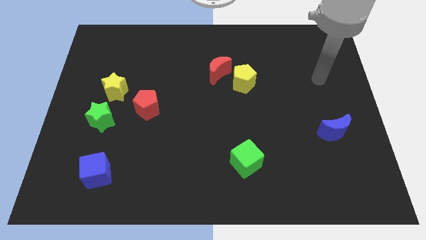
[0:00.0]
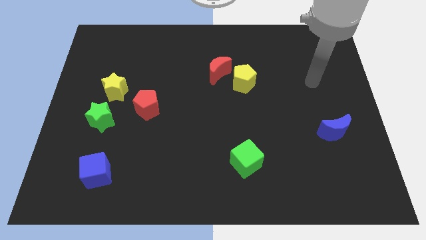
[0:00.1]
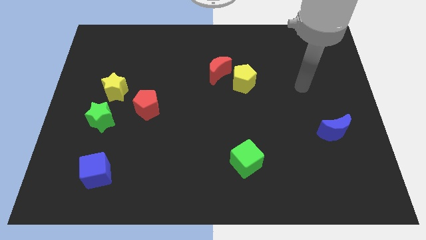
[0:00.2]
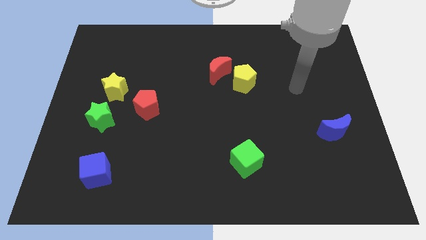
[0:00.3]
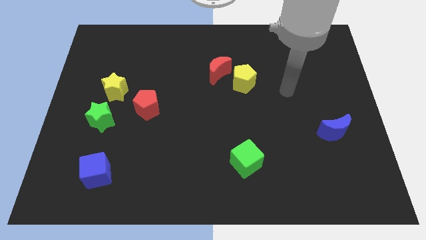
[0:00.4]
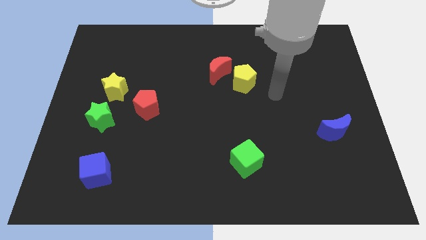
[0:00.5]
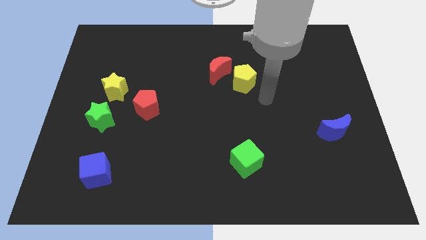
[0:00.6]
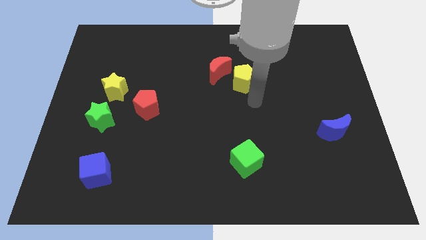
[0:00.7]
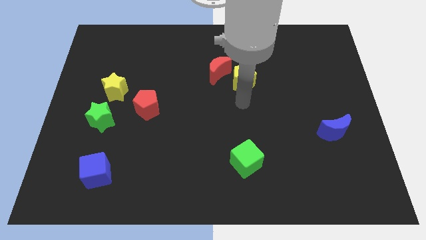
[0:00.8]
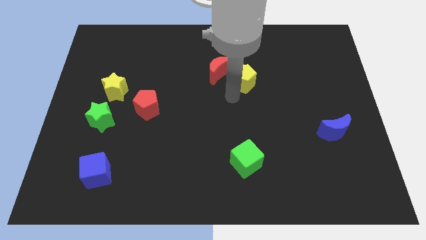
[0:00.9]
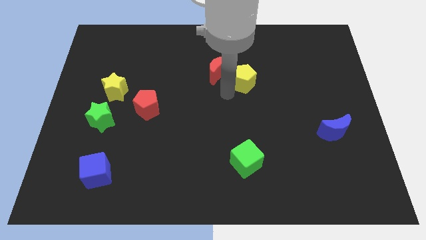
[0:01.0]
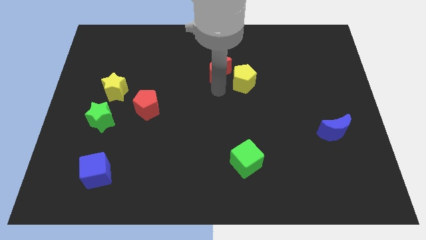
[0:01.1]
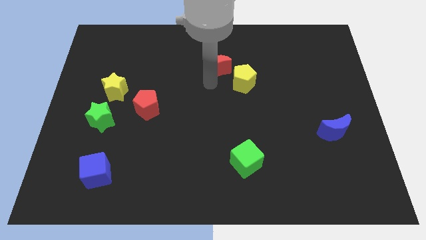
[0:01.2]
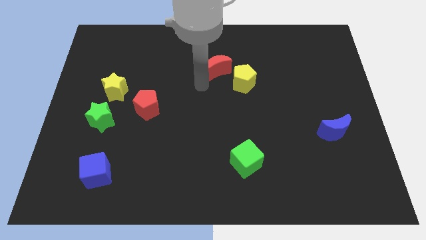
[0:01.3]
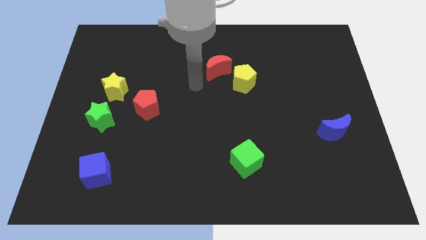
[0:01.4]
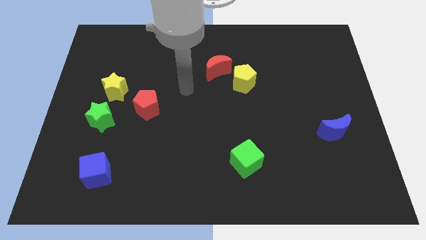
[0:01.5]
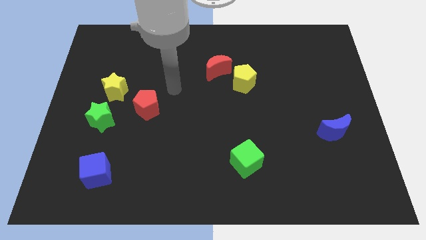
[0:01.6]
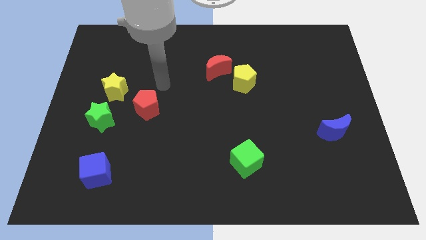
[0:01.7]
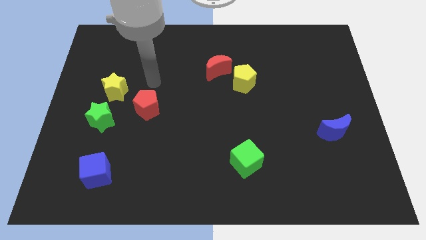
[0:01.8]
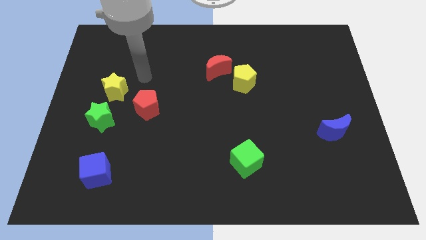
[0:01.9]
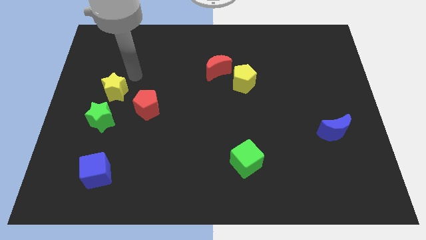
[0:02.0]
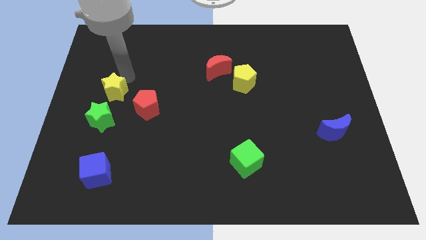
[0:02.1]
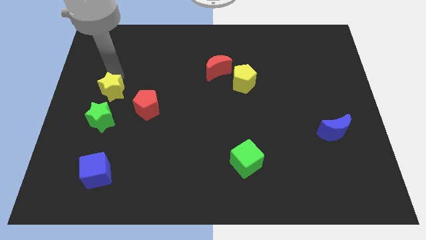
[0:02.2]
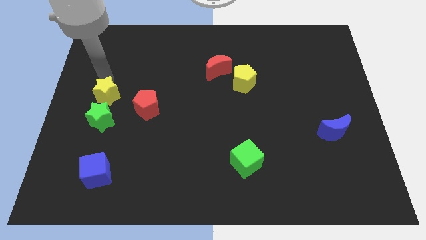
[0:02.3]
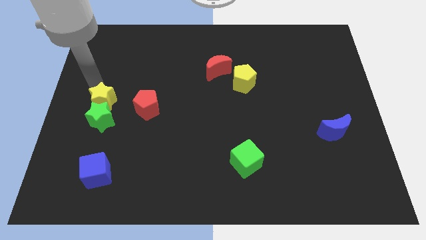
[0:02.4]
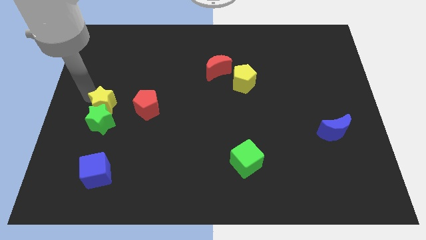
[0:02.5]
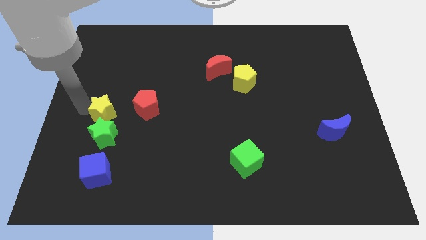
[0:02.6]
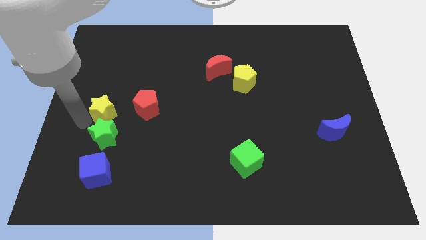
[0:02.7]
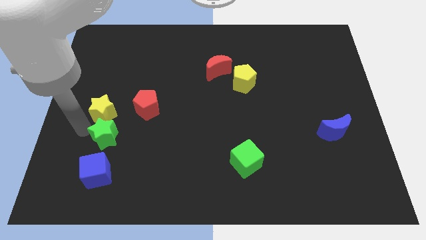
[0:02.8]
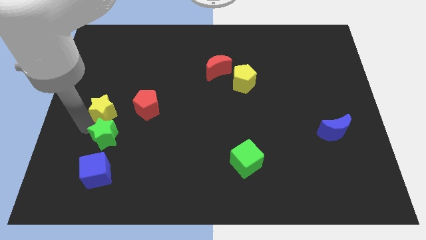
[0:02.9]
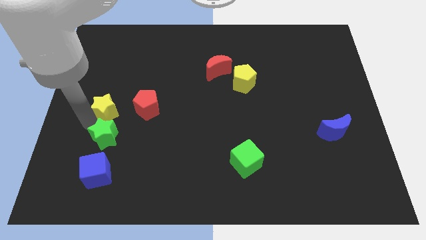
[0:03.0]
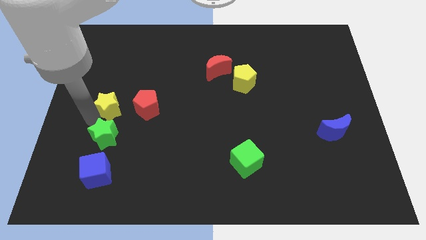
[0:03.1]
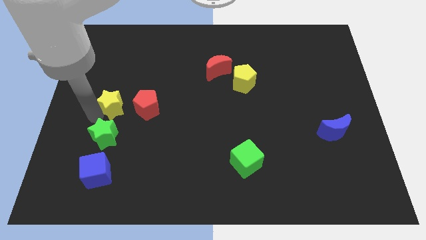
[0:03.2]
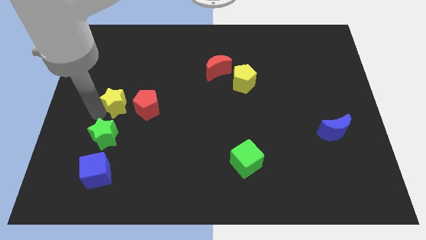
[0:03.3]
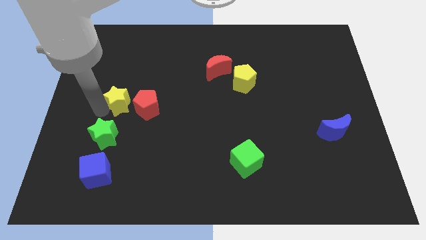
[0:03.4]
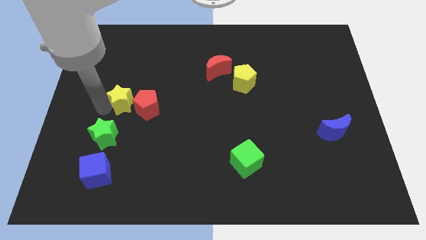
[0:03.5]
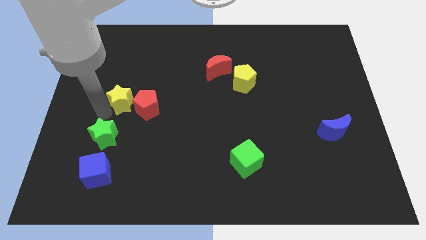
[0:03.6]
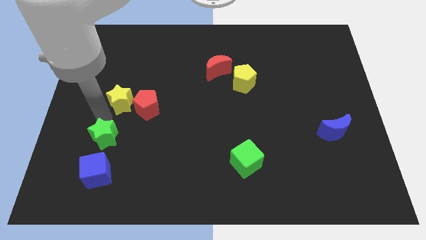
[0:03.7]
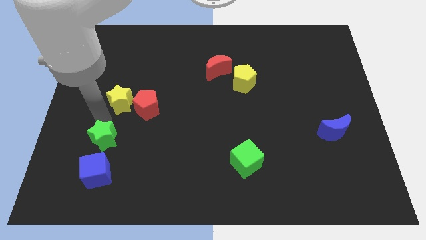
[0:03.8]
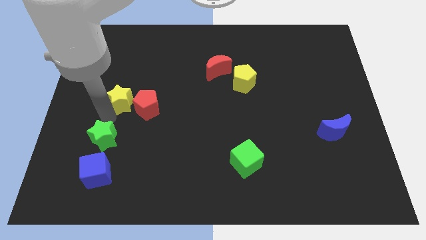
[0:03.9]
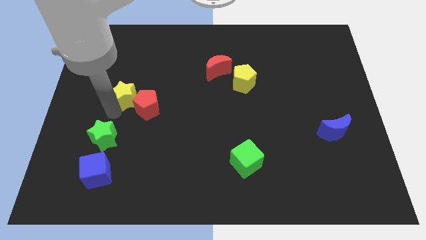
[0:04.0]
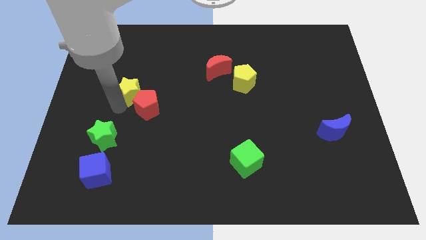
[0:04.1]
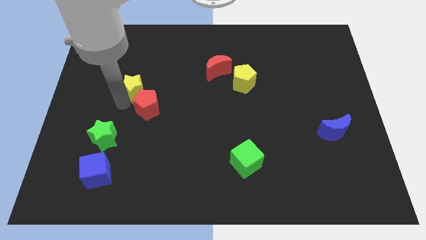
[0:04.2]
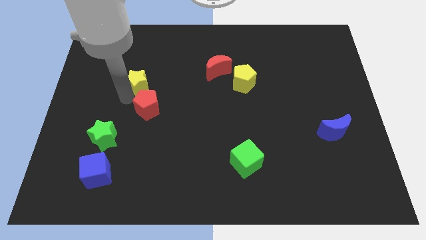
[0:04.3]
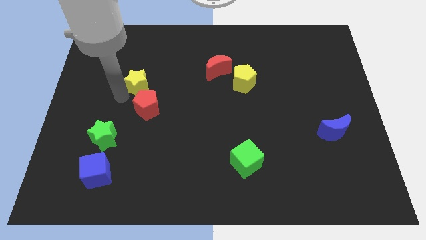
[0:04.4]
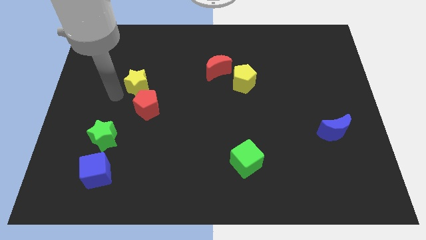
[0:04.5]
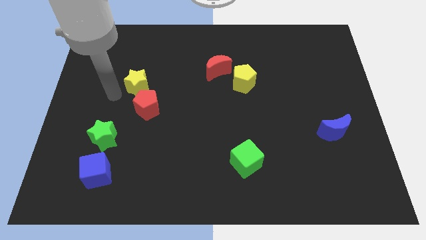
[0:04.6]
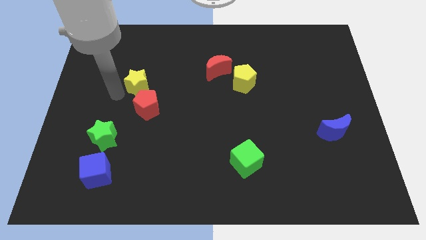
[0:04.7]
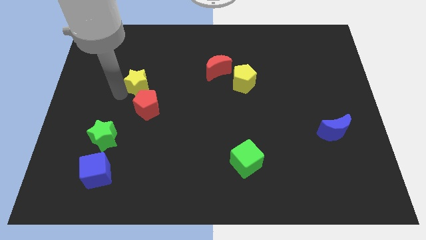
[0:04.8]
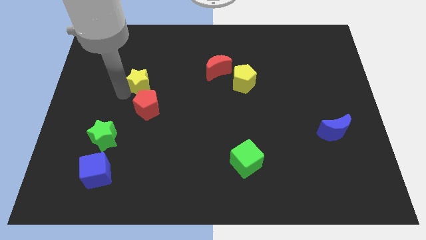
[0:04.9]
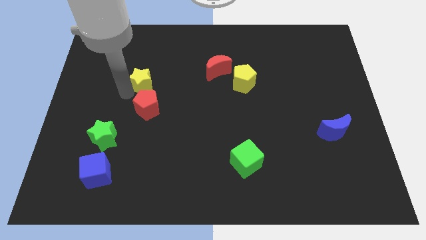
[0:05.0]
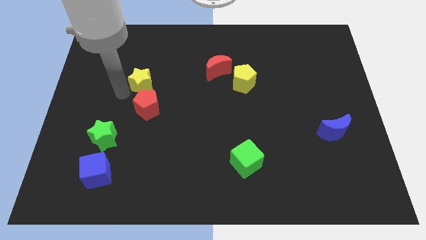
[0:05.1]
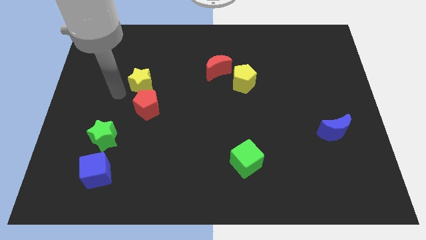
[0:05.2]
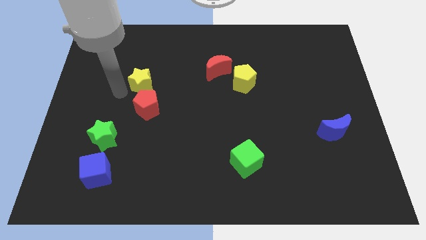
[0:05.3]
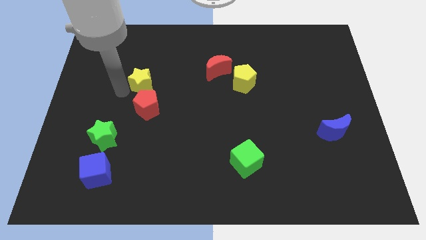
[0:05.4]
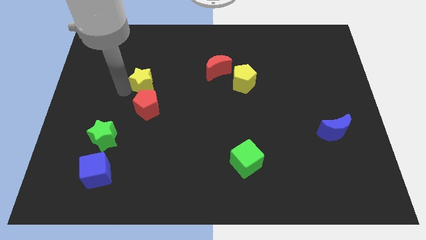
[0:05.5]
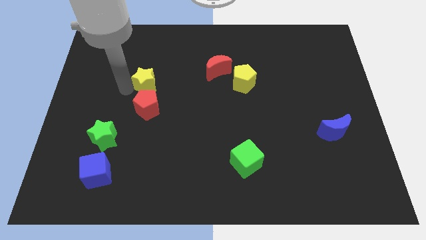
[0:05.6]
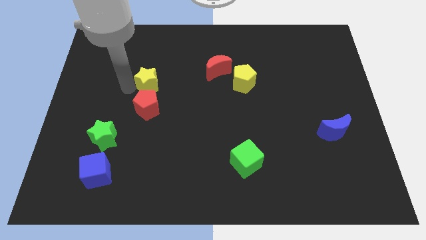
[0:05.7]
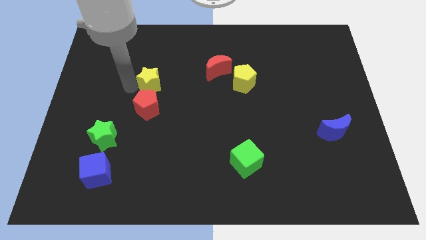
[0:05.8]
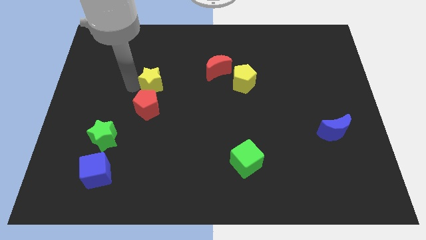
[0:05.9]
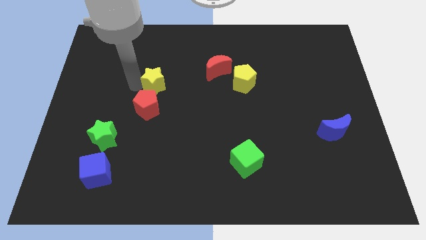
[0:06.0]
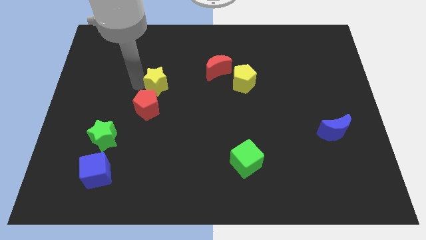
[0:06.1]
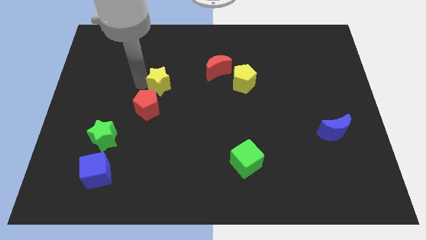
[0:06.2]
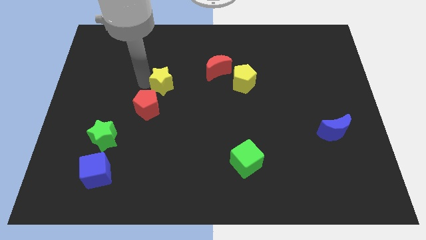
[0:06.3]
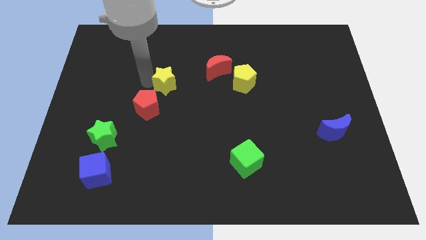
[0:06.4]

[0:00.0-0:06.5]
move the yellow star just left of the red moon

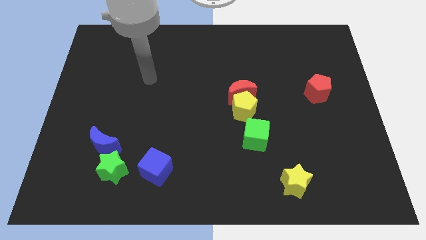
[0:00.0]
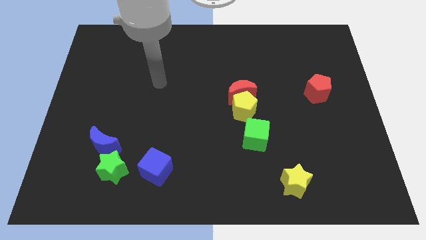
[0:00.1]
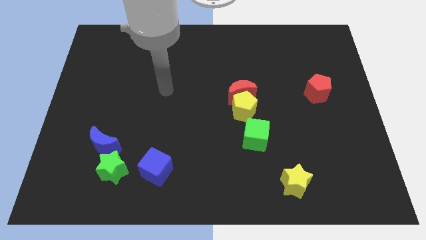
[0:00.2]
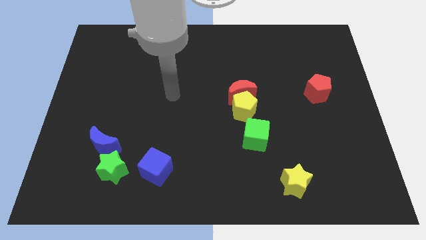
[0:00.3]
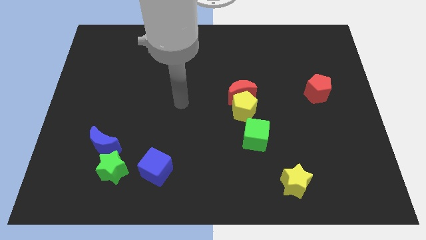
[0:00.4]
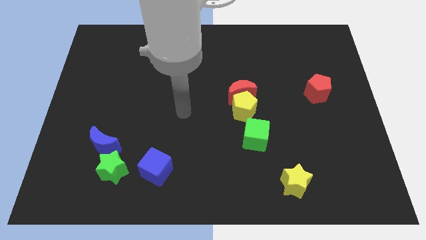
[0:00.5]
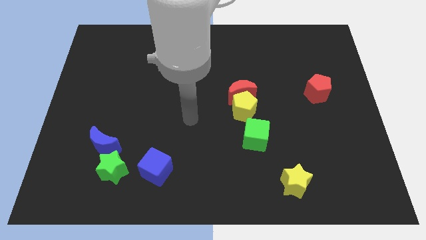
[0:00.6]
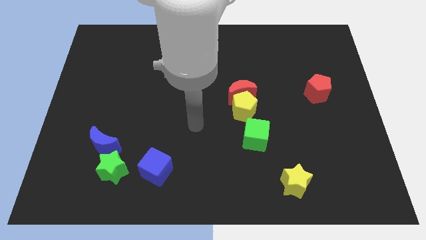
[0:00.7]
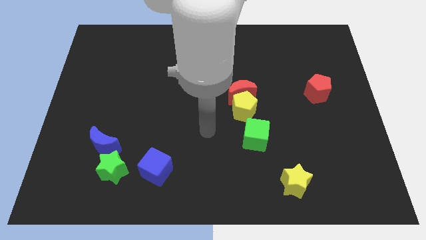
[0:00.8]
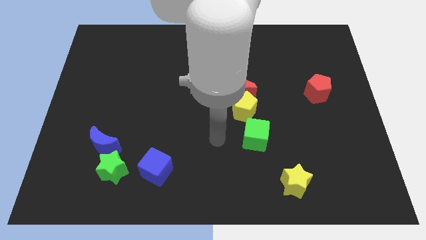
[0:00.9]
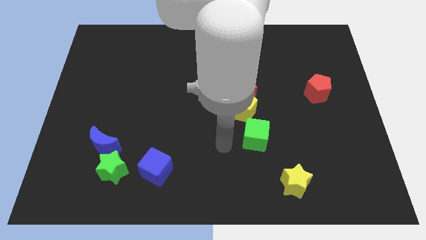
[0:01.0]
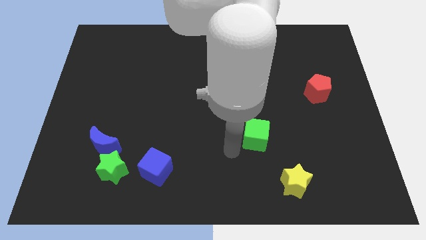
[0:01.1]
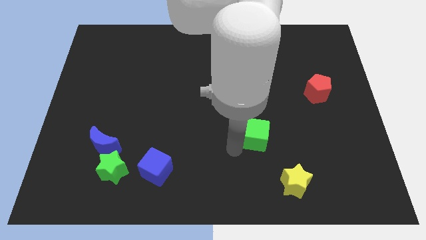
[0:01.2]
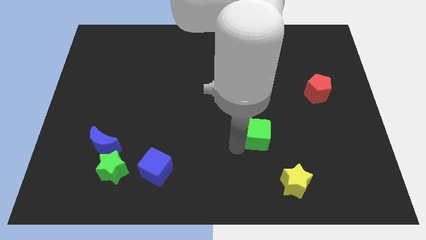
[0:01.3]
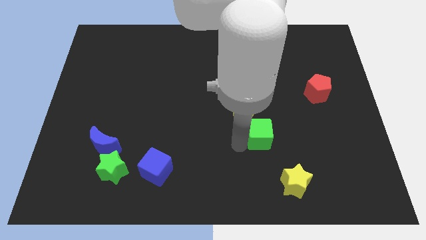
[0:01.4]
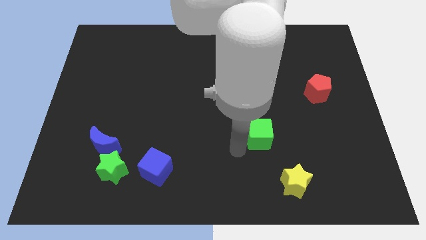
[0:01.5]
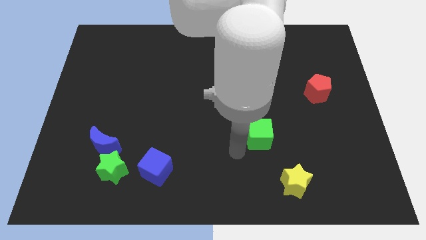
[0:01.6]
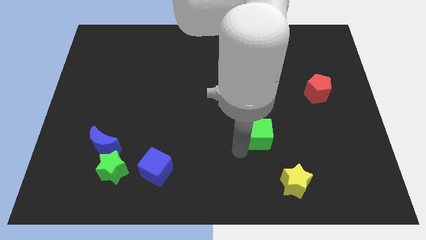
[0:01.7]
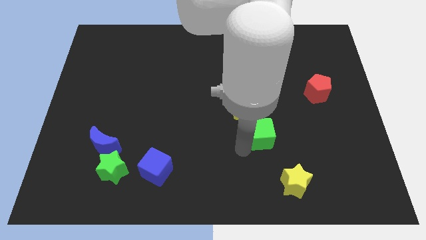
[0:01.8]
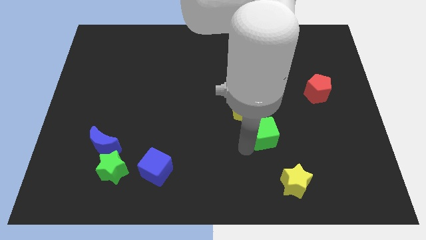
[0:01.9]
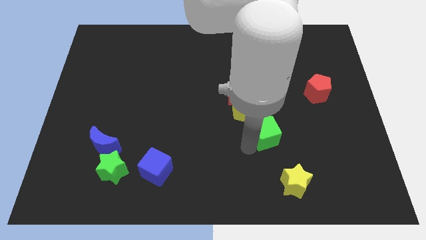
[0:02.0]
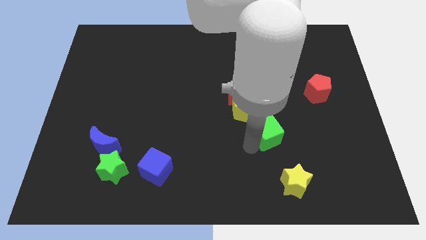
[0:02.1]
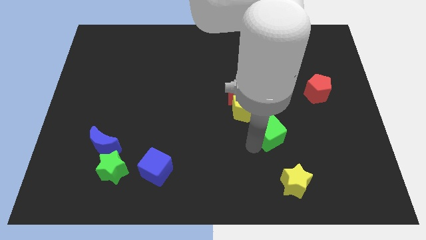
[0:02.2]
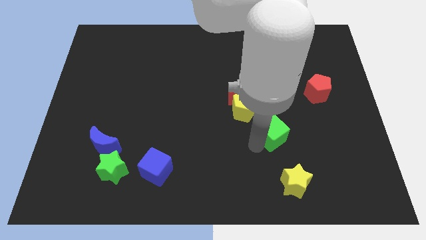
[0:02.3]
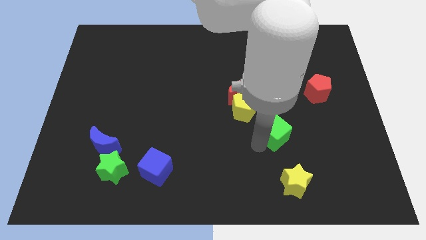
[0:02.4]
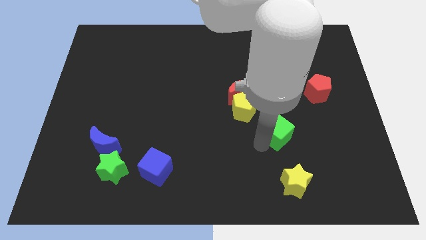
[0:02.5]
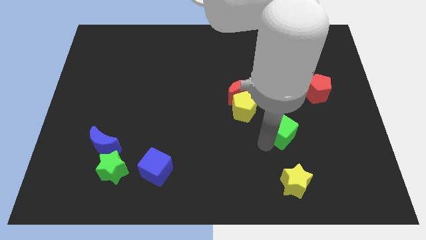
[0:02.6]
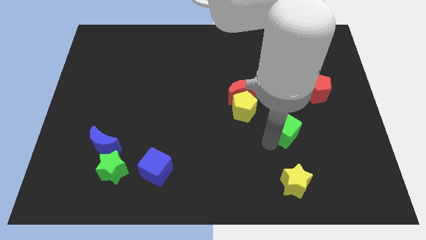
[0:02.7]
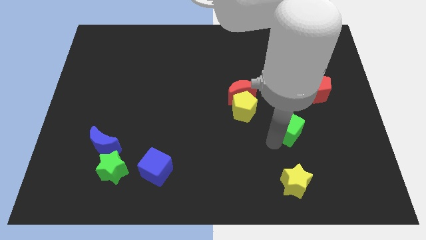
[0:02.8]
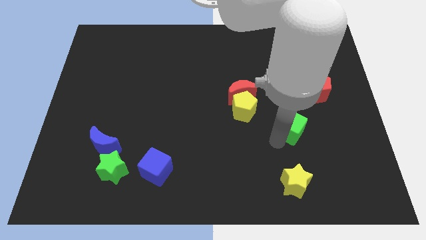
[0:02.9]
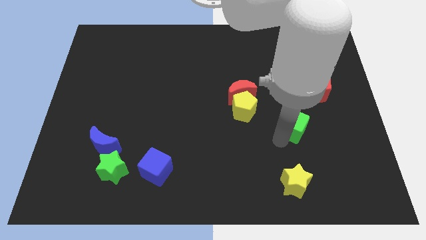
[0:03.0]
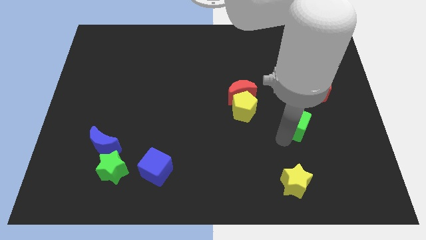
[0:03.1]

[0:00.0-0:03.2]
push the green cube diagonally down and to the left of the red pentagon
